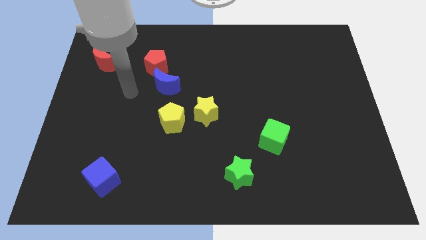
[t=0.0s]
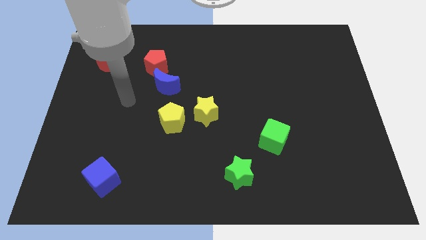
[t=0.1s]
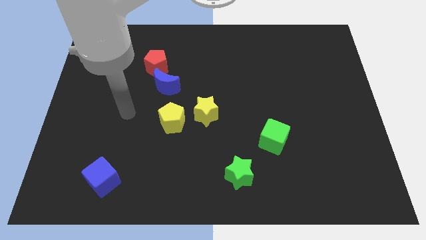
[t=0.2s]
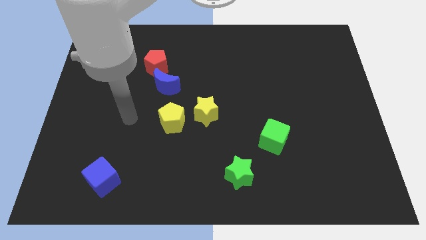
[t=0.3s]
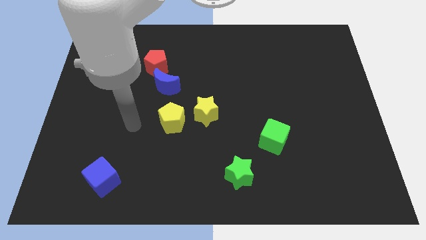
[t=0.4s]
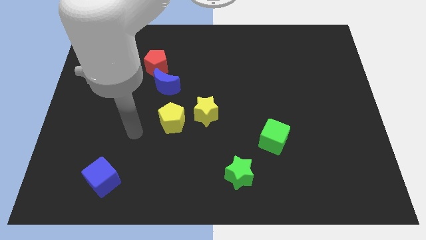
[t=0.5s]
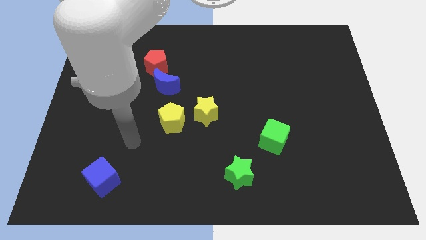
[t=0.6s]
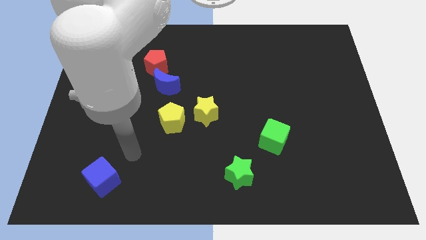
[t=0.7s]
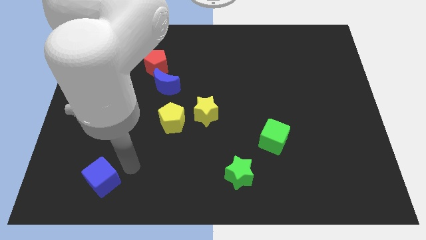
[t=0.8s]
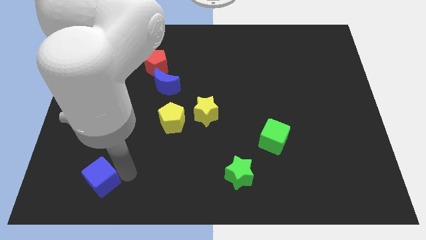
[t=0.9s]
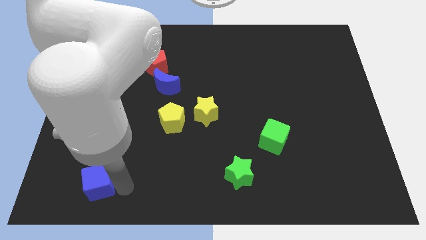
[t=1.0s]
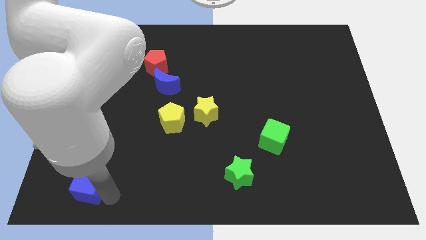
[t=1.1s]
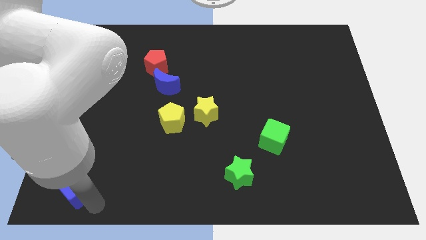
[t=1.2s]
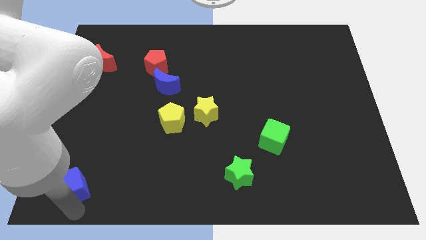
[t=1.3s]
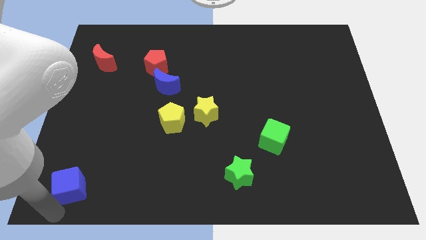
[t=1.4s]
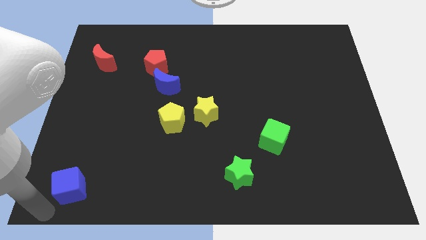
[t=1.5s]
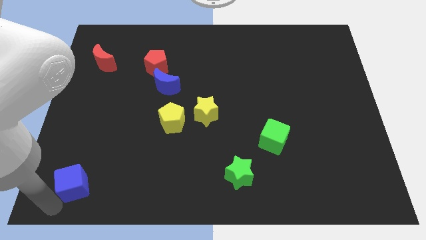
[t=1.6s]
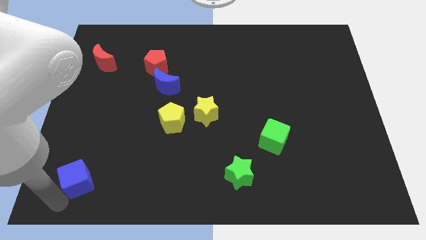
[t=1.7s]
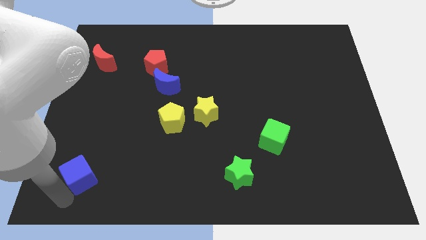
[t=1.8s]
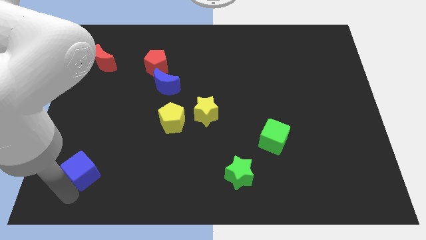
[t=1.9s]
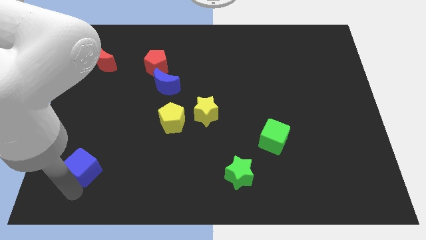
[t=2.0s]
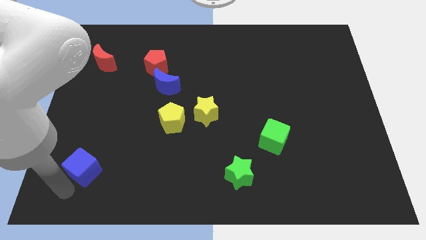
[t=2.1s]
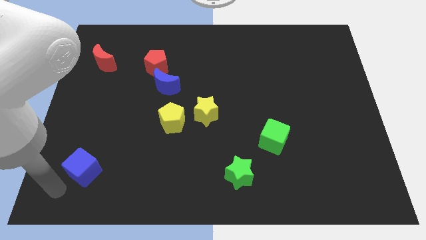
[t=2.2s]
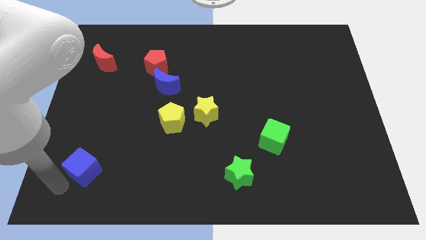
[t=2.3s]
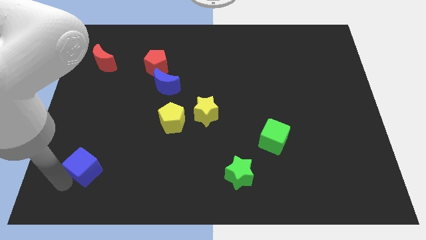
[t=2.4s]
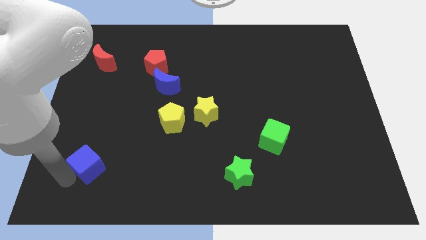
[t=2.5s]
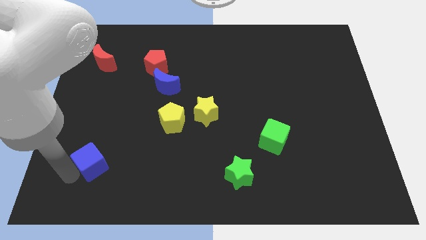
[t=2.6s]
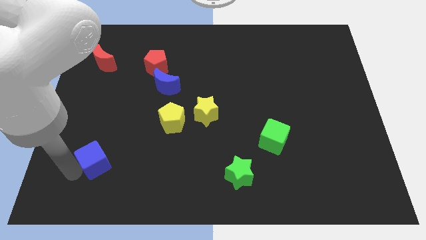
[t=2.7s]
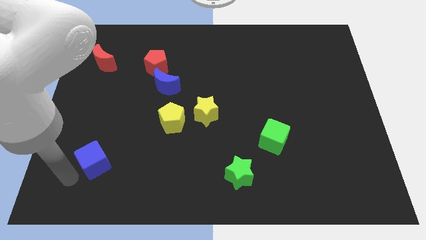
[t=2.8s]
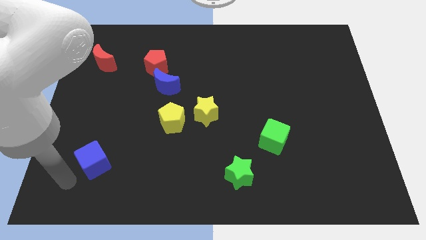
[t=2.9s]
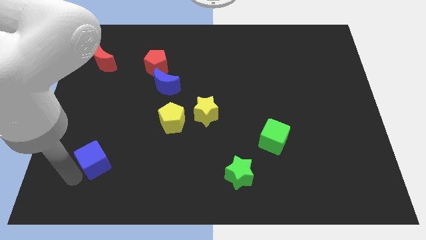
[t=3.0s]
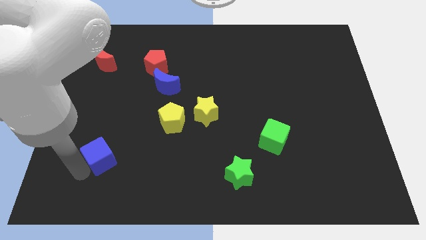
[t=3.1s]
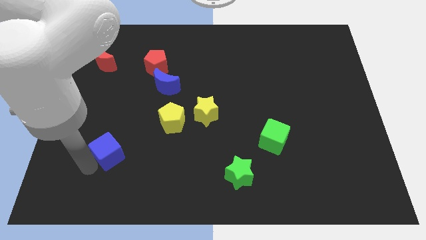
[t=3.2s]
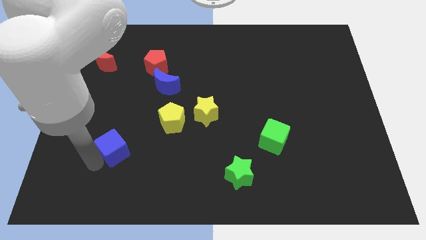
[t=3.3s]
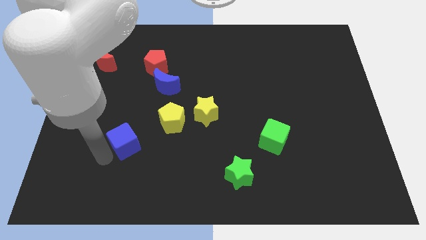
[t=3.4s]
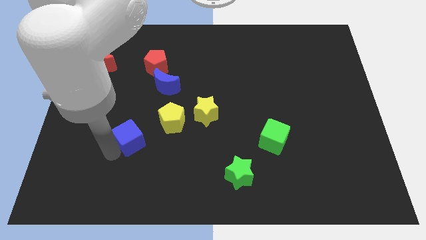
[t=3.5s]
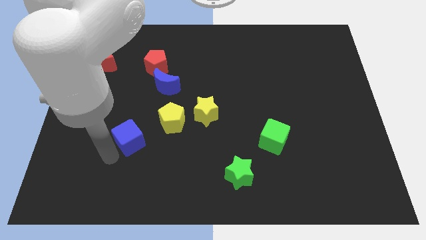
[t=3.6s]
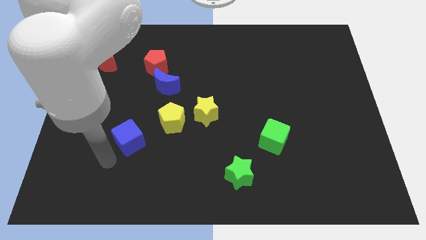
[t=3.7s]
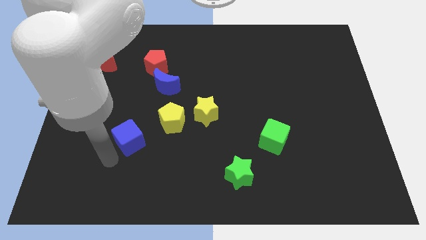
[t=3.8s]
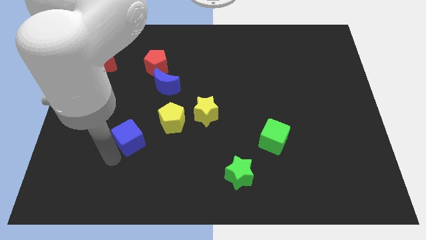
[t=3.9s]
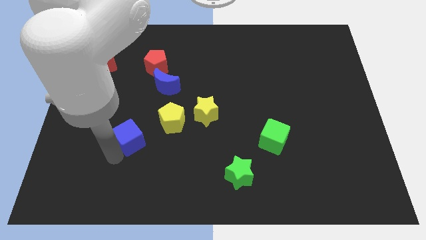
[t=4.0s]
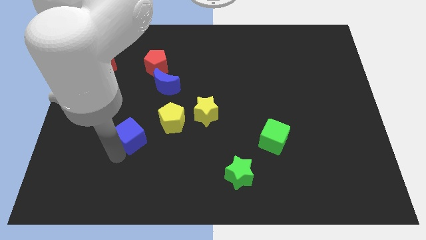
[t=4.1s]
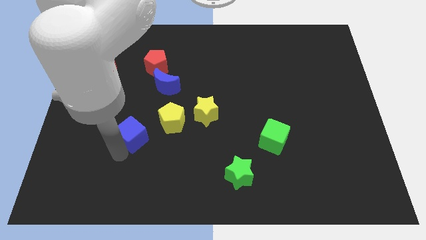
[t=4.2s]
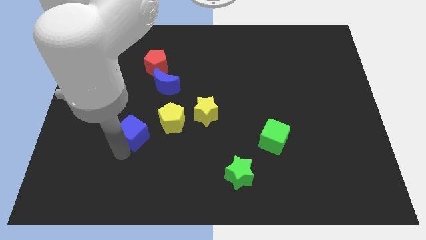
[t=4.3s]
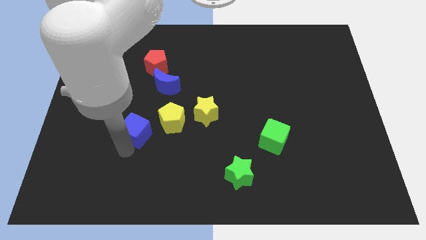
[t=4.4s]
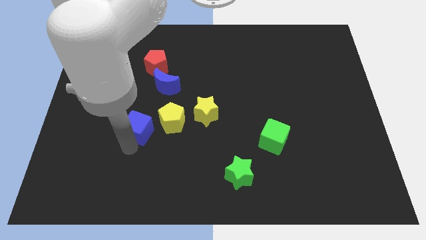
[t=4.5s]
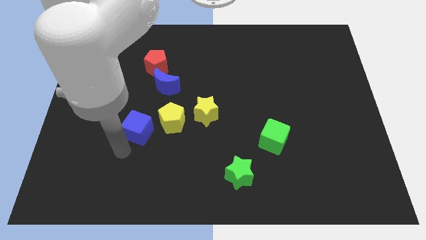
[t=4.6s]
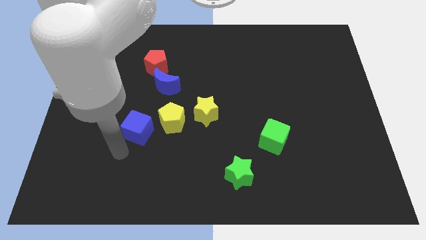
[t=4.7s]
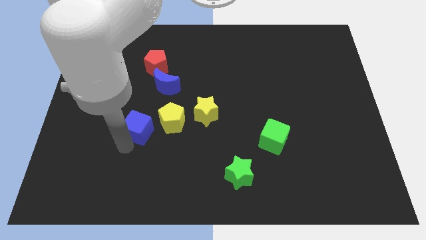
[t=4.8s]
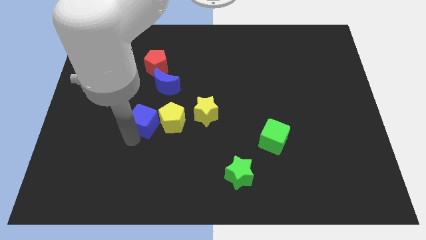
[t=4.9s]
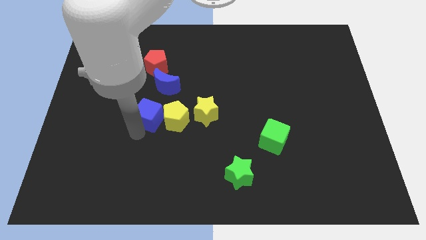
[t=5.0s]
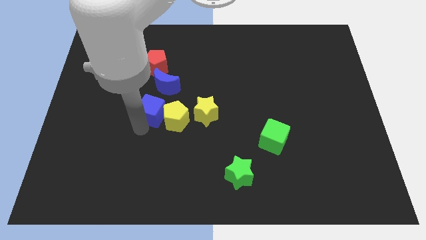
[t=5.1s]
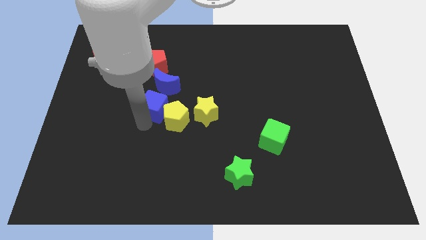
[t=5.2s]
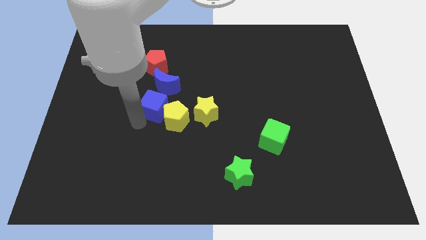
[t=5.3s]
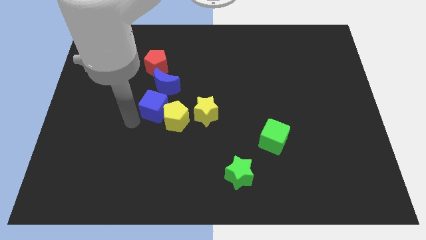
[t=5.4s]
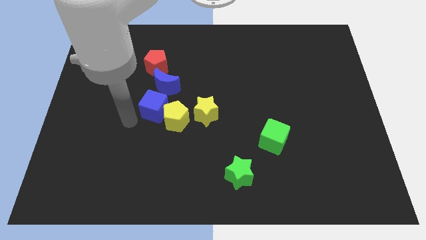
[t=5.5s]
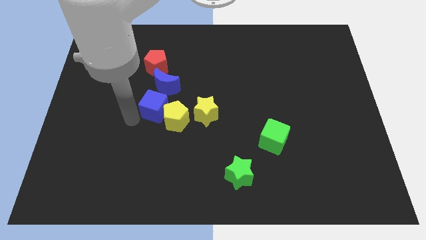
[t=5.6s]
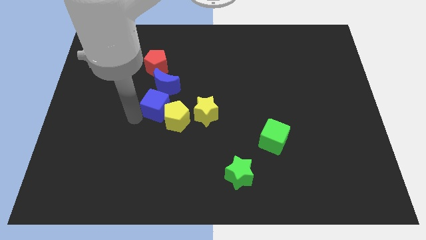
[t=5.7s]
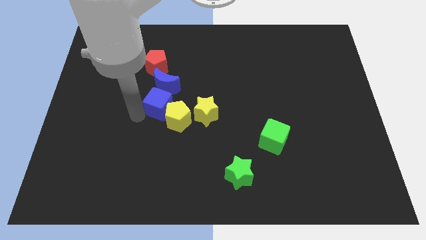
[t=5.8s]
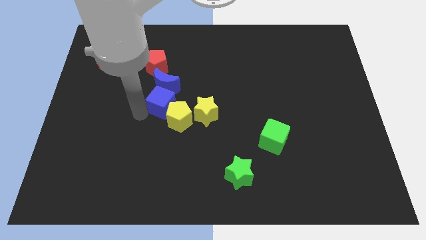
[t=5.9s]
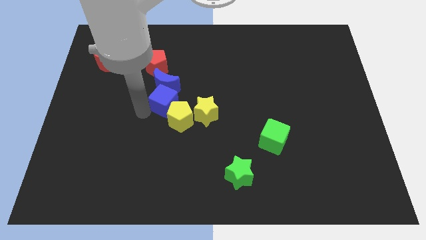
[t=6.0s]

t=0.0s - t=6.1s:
move the blue cube to the top left side of the yellow star

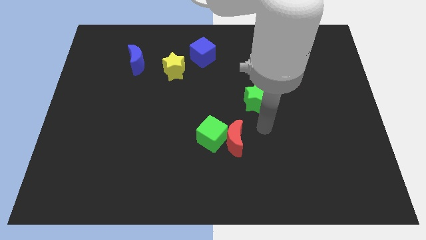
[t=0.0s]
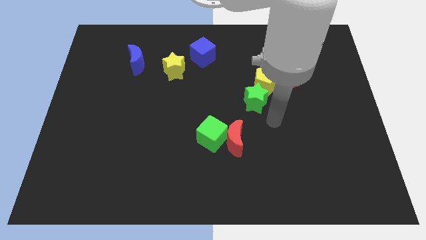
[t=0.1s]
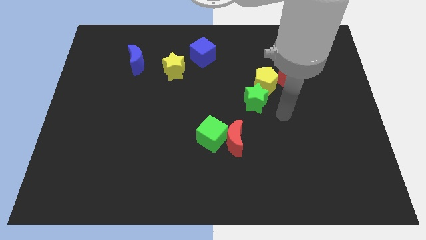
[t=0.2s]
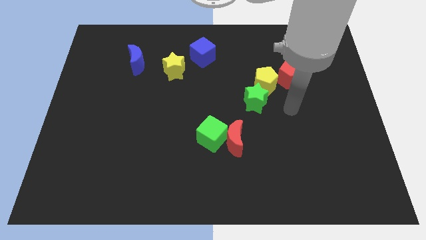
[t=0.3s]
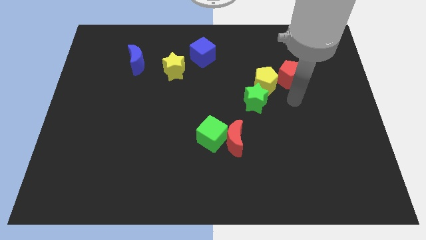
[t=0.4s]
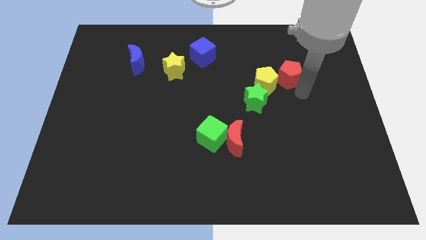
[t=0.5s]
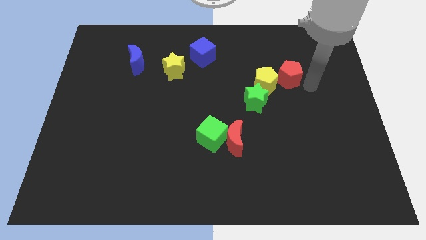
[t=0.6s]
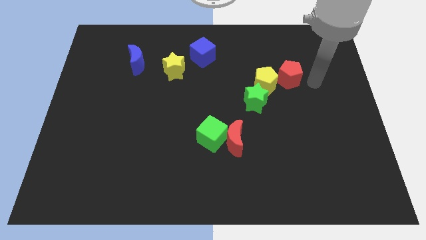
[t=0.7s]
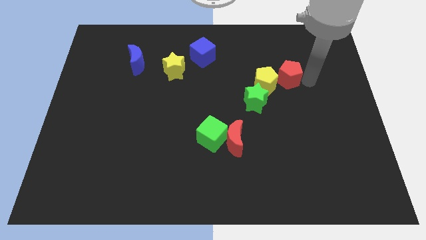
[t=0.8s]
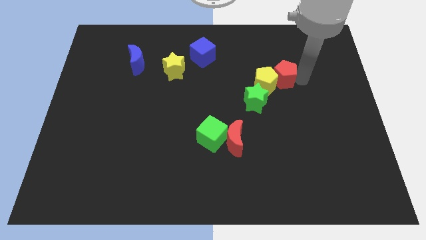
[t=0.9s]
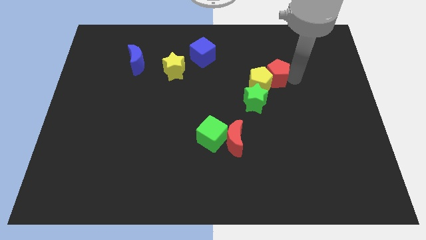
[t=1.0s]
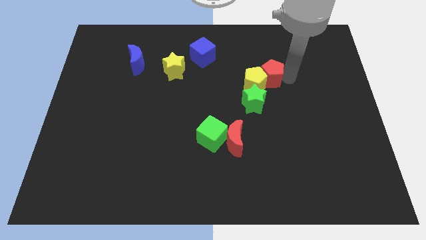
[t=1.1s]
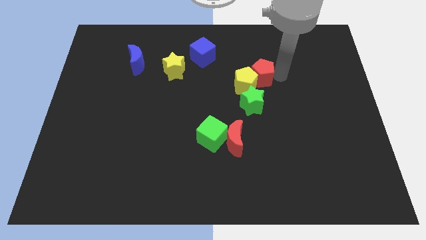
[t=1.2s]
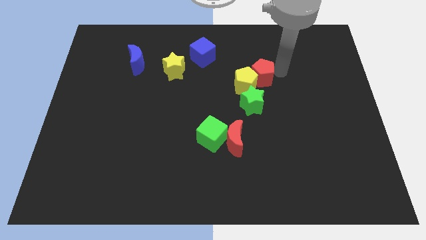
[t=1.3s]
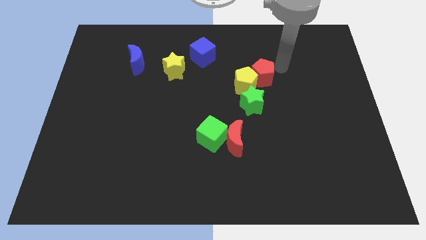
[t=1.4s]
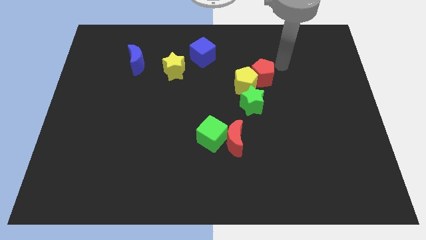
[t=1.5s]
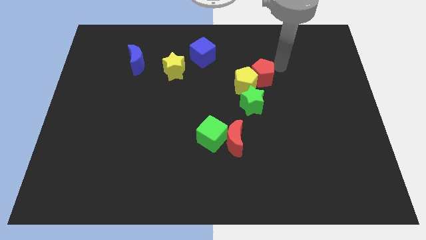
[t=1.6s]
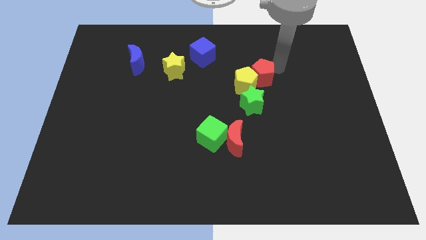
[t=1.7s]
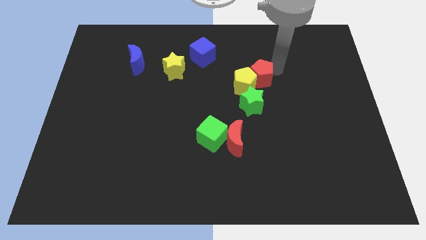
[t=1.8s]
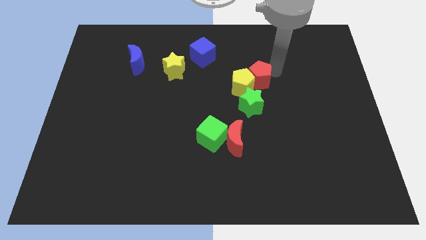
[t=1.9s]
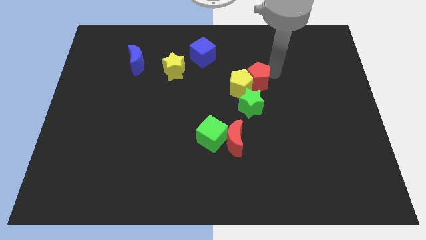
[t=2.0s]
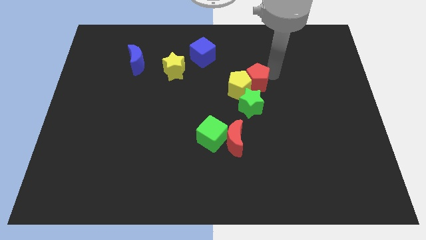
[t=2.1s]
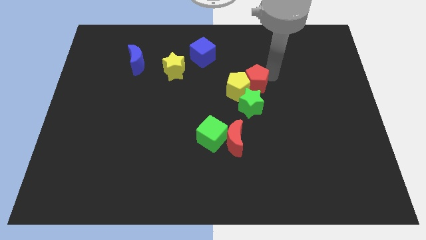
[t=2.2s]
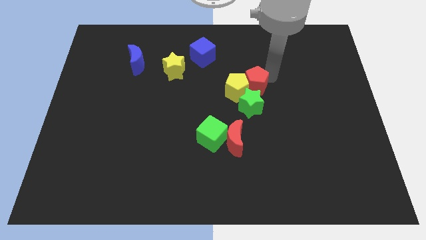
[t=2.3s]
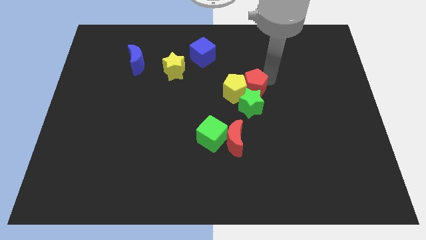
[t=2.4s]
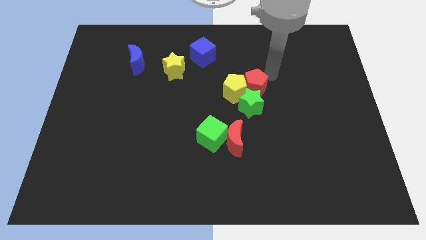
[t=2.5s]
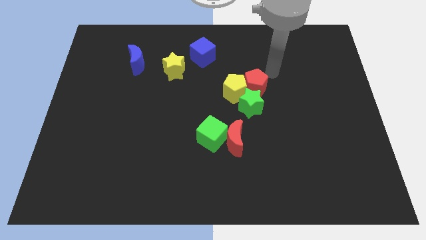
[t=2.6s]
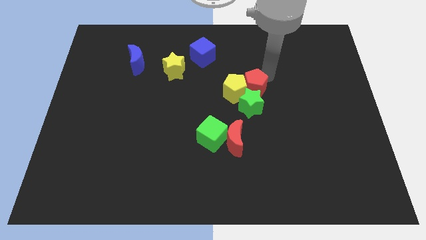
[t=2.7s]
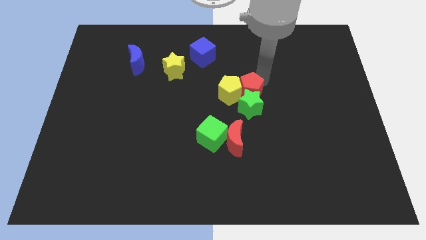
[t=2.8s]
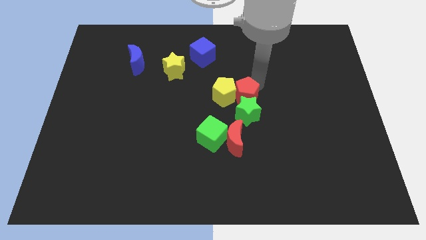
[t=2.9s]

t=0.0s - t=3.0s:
move the red pentagon above the red moon
